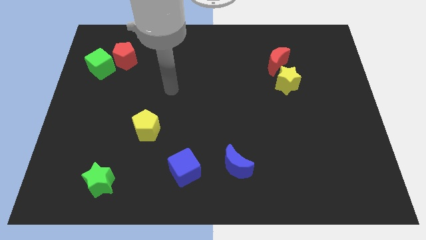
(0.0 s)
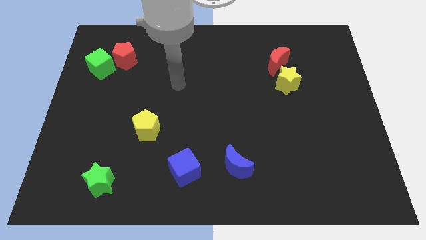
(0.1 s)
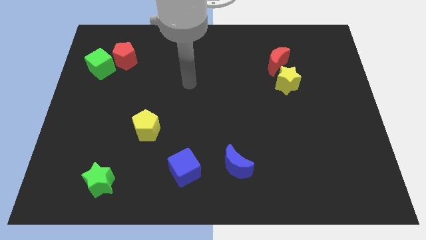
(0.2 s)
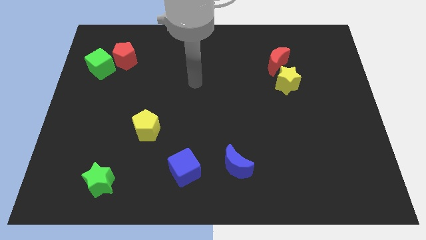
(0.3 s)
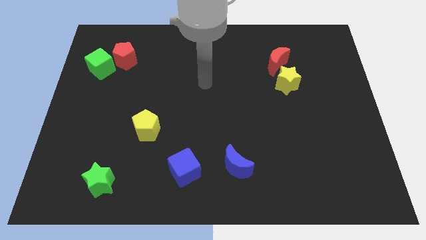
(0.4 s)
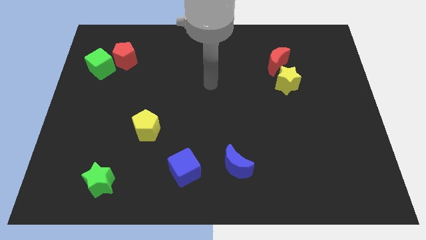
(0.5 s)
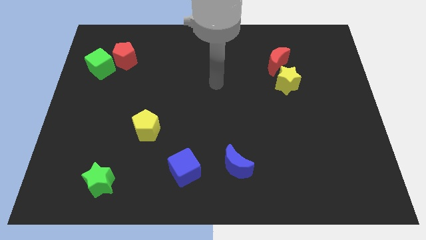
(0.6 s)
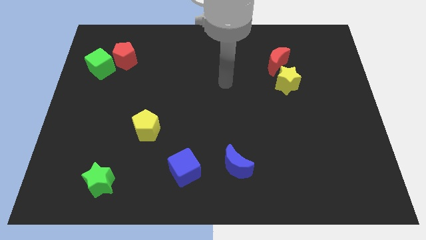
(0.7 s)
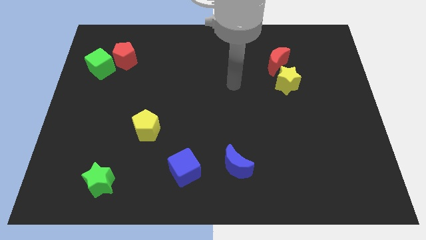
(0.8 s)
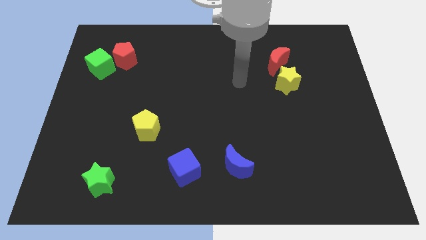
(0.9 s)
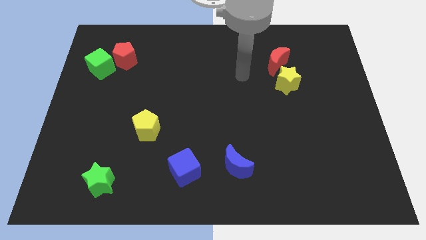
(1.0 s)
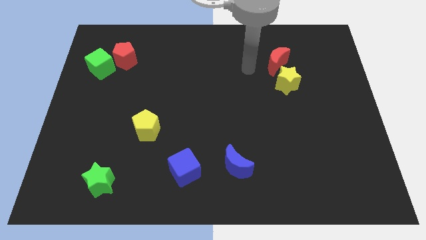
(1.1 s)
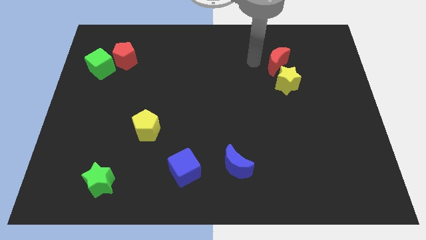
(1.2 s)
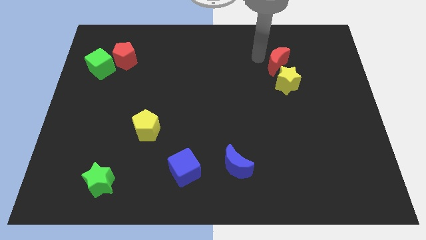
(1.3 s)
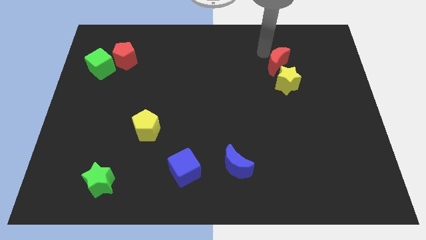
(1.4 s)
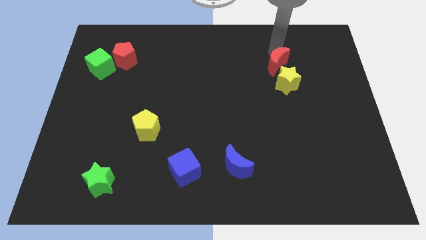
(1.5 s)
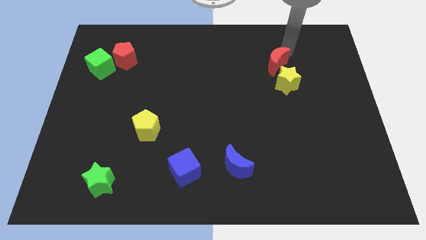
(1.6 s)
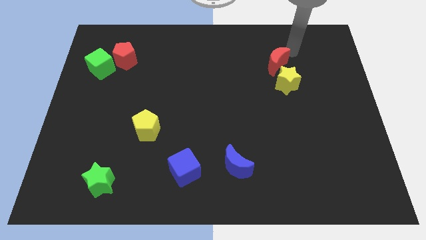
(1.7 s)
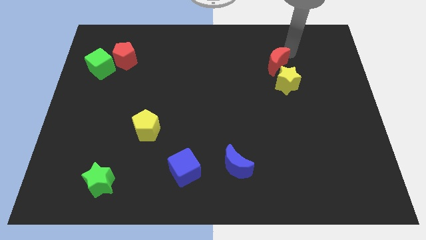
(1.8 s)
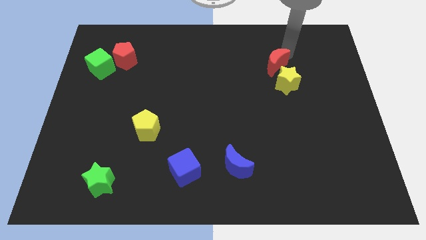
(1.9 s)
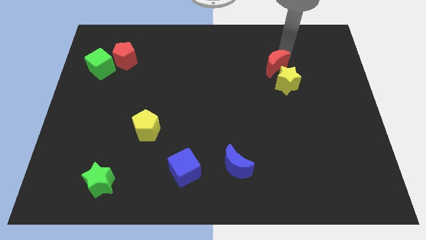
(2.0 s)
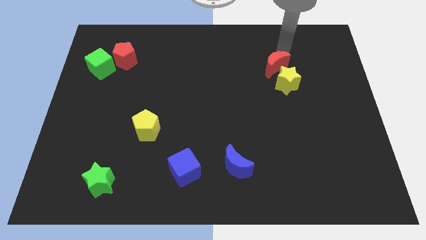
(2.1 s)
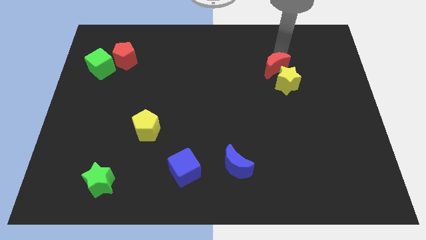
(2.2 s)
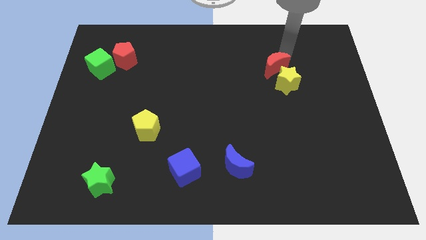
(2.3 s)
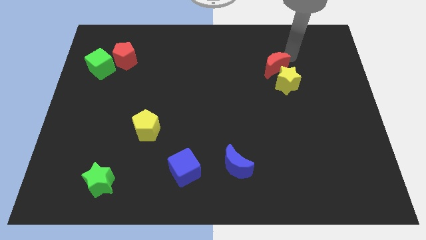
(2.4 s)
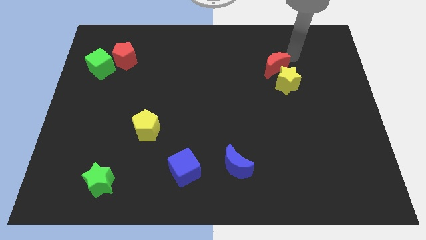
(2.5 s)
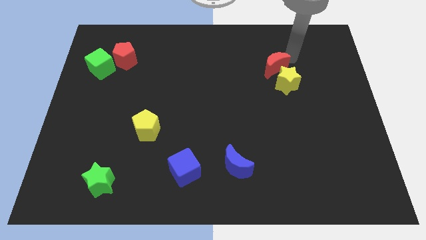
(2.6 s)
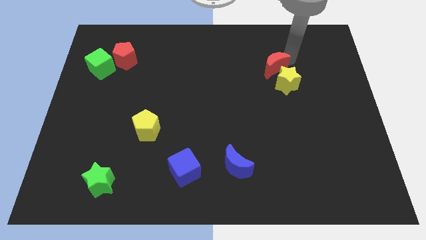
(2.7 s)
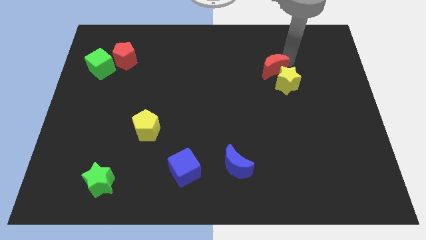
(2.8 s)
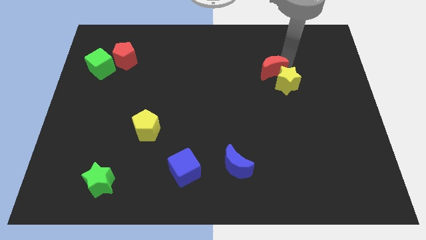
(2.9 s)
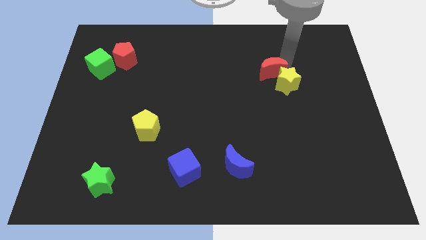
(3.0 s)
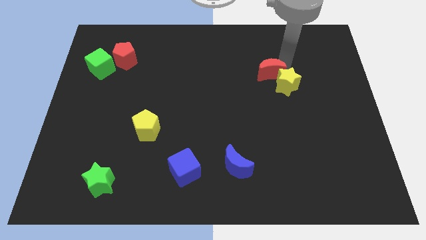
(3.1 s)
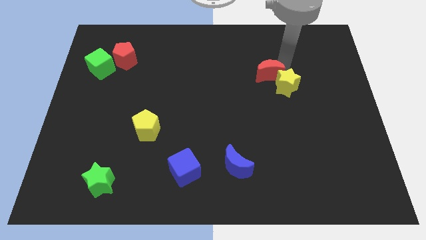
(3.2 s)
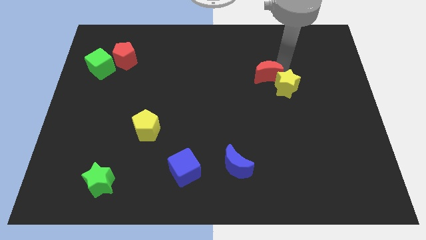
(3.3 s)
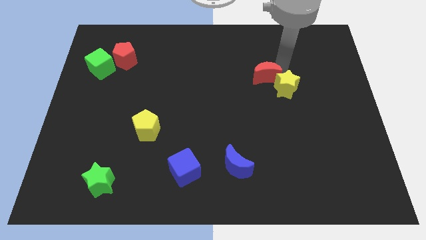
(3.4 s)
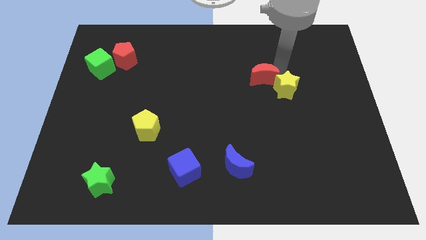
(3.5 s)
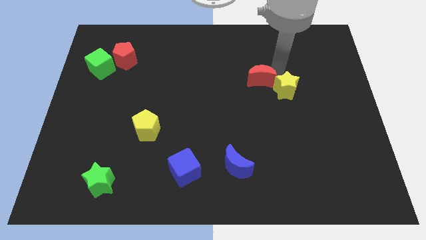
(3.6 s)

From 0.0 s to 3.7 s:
push the red moon a bit down and left diagonally

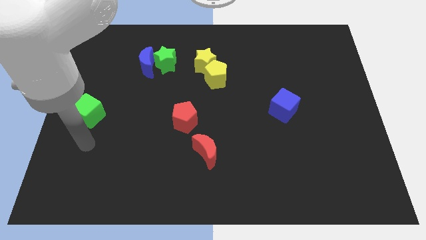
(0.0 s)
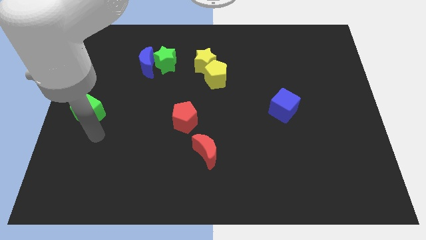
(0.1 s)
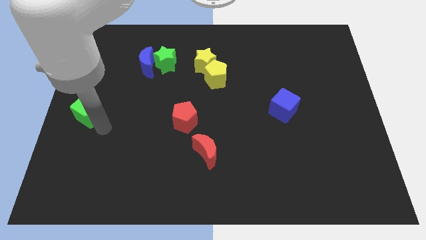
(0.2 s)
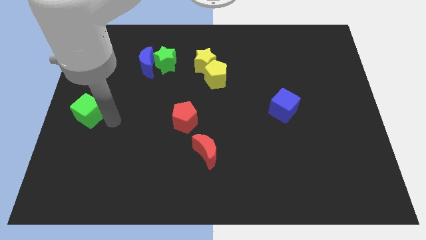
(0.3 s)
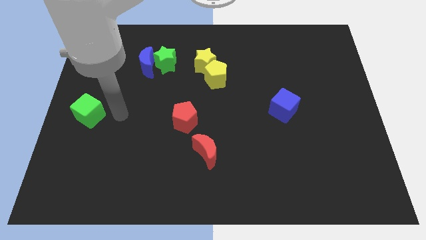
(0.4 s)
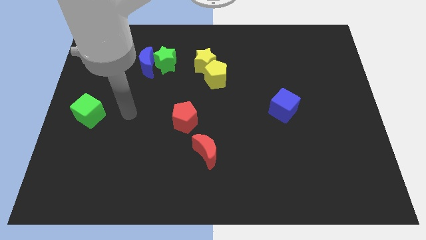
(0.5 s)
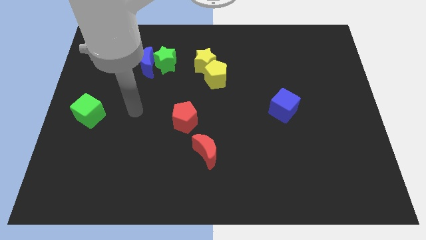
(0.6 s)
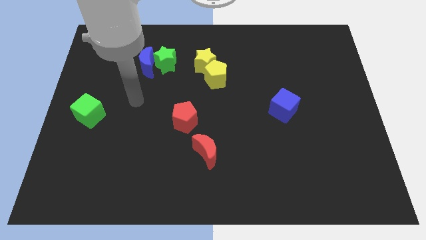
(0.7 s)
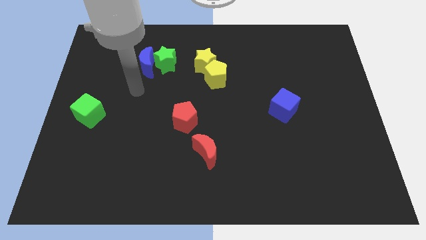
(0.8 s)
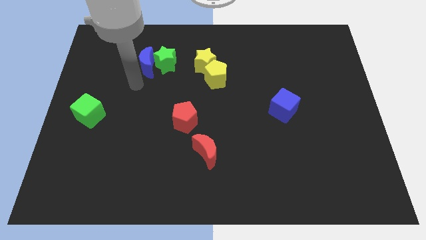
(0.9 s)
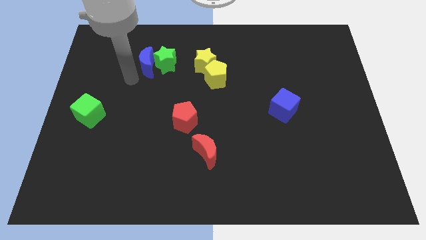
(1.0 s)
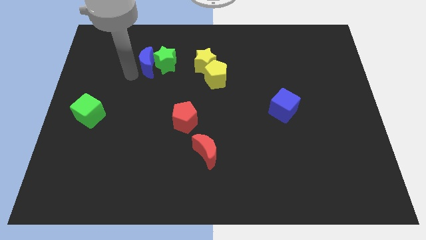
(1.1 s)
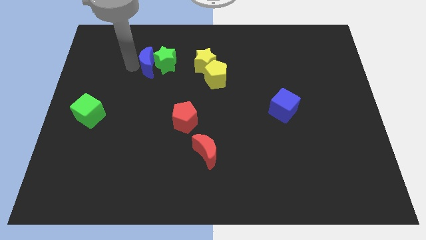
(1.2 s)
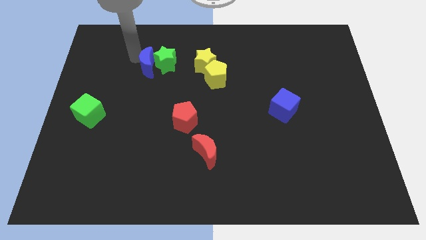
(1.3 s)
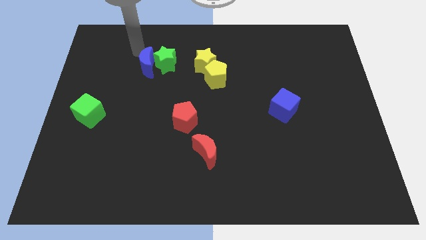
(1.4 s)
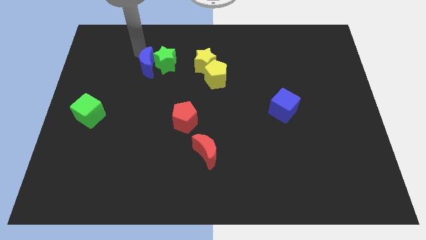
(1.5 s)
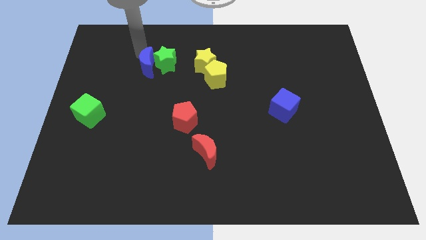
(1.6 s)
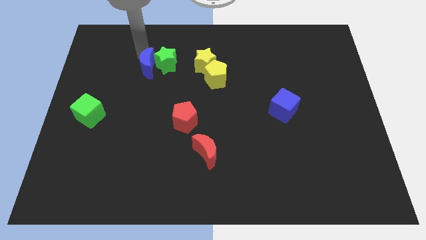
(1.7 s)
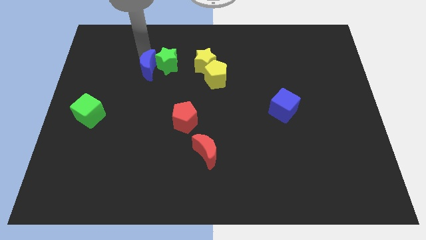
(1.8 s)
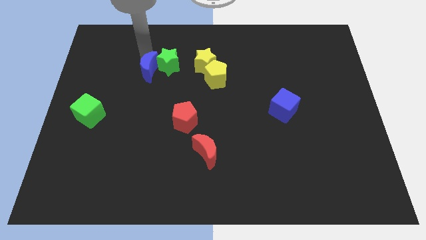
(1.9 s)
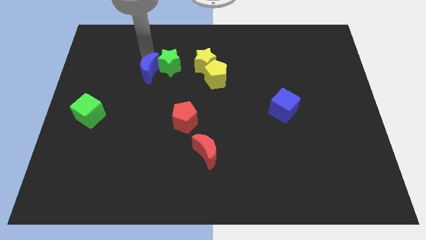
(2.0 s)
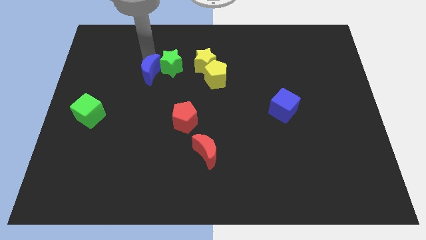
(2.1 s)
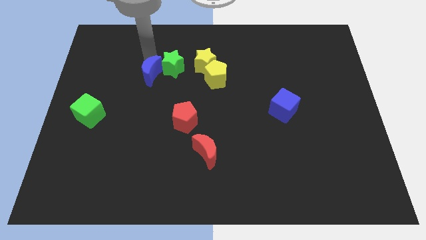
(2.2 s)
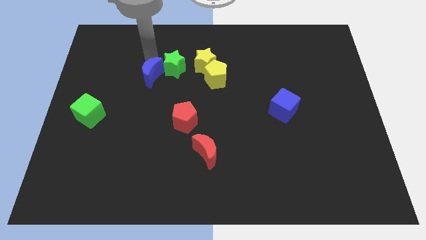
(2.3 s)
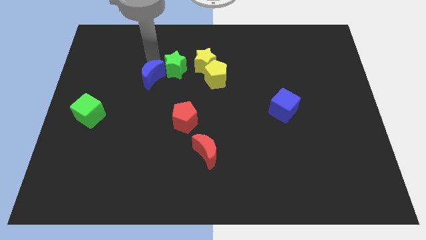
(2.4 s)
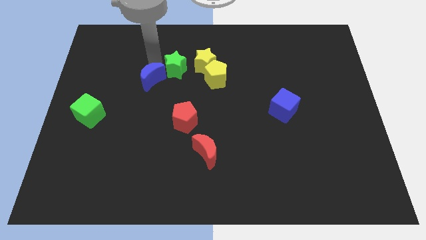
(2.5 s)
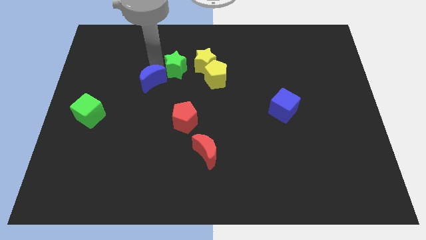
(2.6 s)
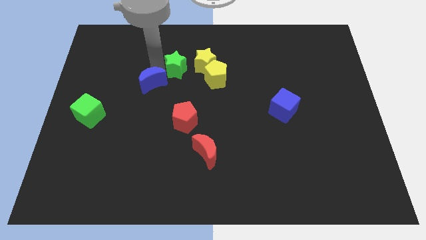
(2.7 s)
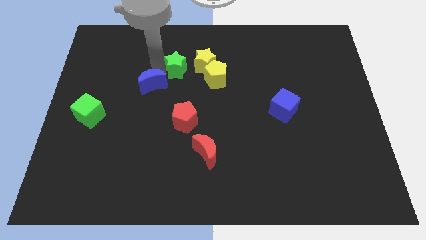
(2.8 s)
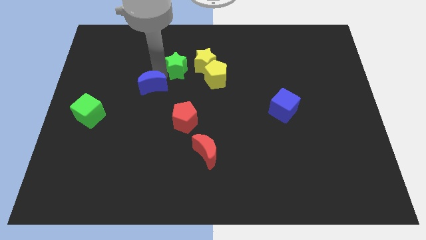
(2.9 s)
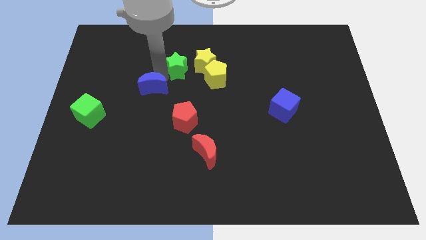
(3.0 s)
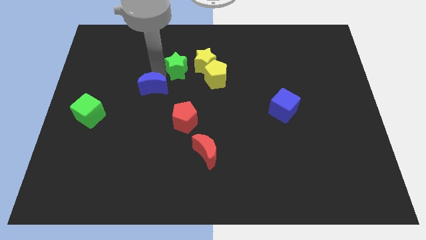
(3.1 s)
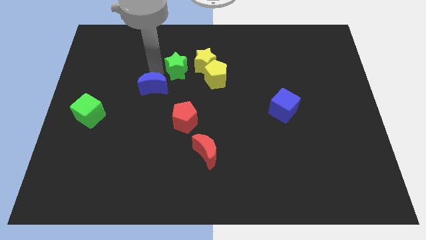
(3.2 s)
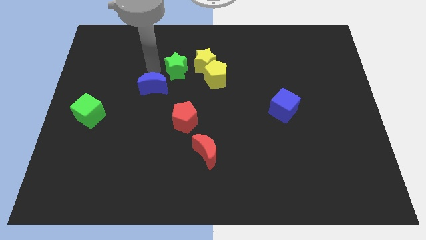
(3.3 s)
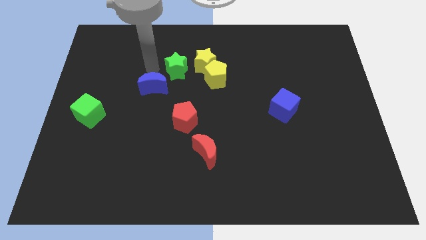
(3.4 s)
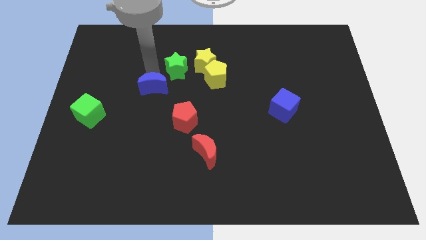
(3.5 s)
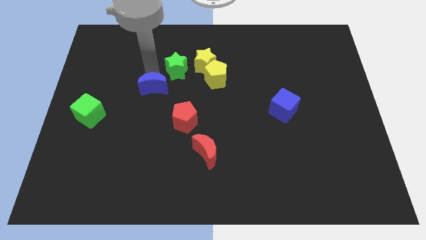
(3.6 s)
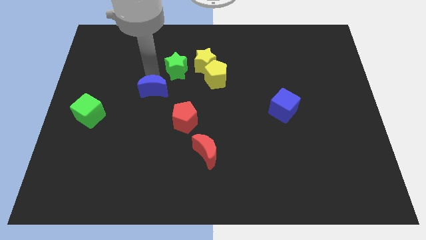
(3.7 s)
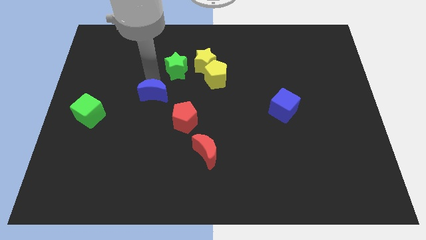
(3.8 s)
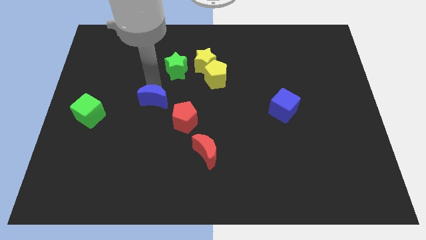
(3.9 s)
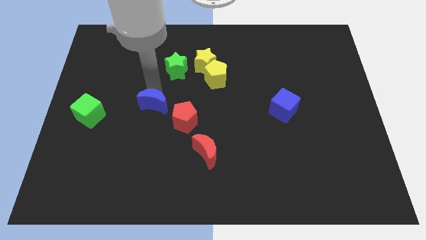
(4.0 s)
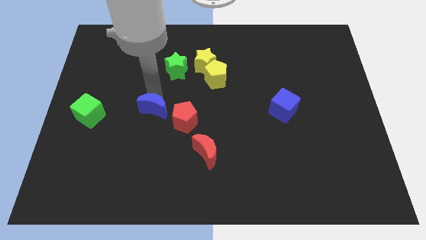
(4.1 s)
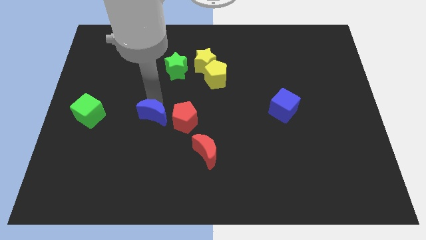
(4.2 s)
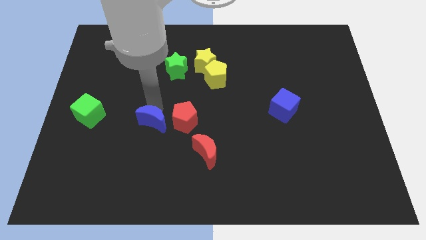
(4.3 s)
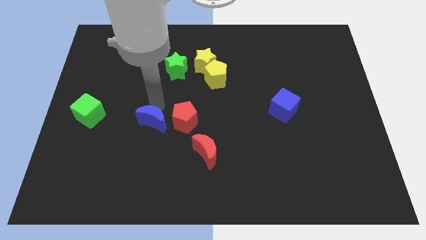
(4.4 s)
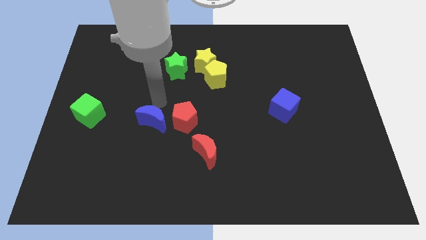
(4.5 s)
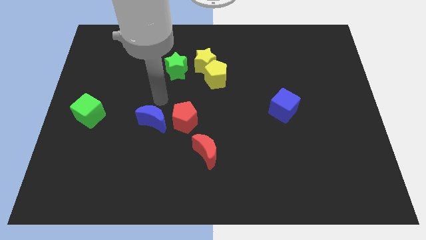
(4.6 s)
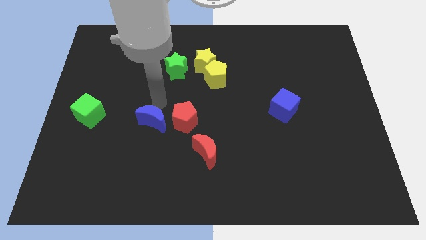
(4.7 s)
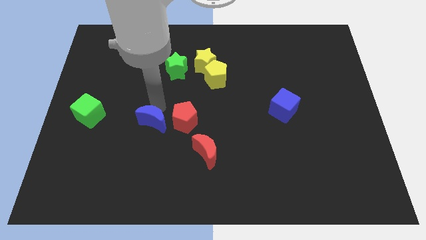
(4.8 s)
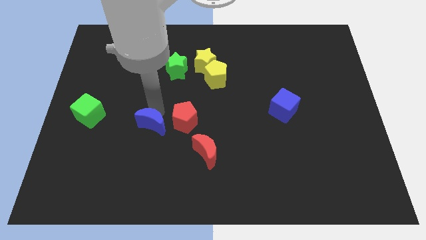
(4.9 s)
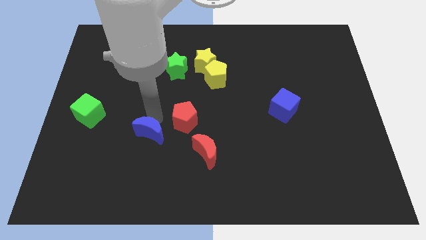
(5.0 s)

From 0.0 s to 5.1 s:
slide the blue moon downwards

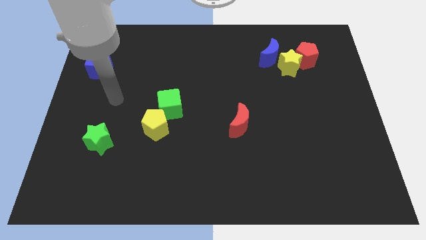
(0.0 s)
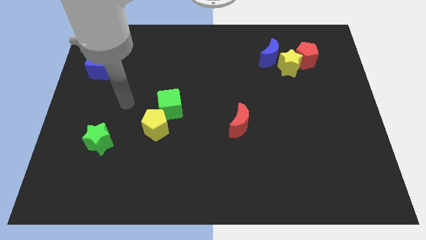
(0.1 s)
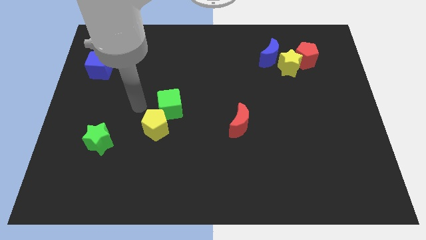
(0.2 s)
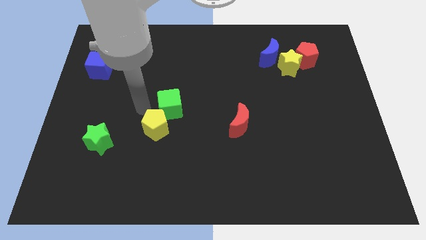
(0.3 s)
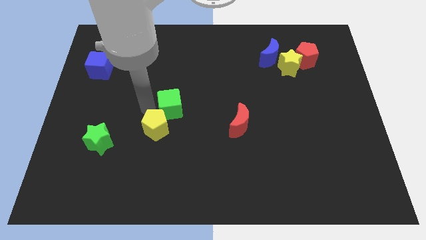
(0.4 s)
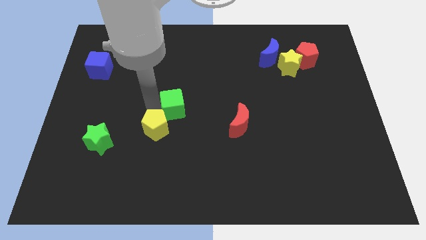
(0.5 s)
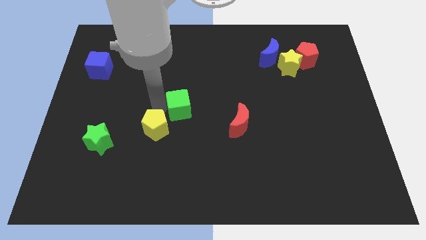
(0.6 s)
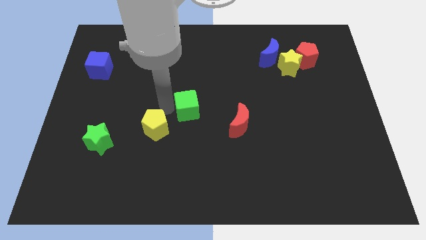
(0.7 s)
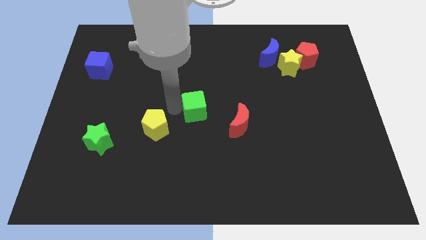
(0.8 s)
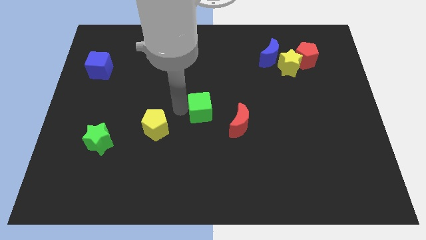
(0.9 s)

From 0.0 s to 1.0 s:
move the green cube a little bit right
